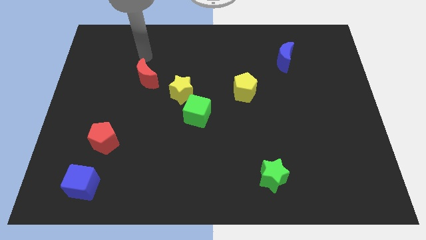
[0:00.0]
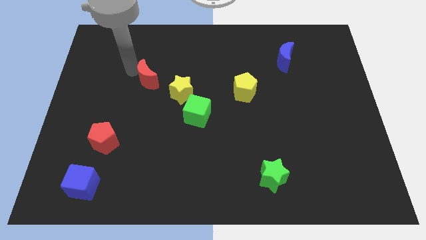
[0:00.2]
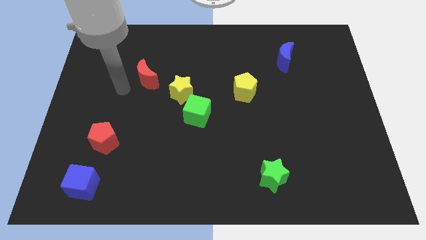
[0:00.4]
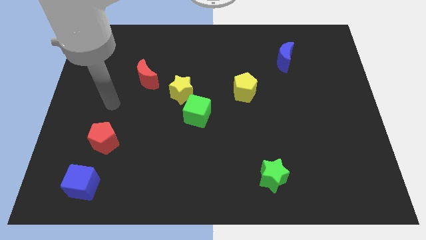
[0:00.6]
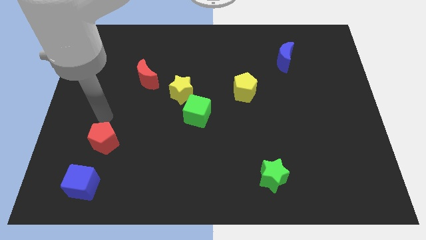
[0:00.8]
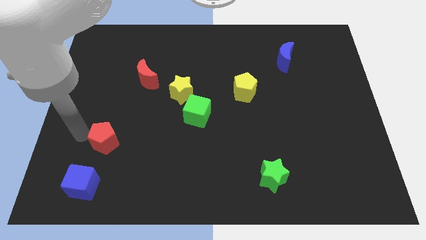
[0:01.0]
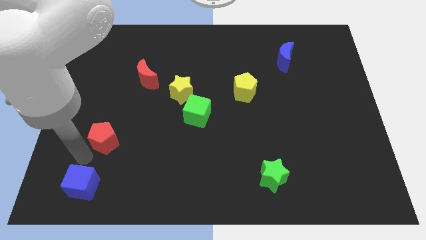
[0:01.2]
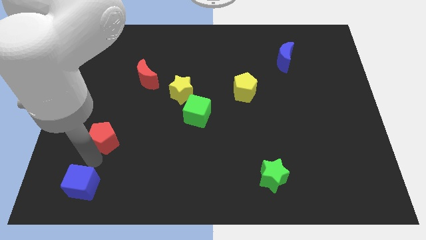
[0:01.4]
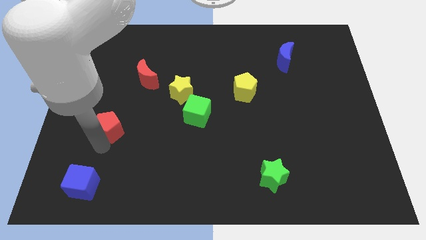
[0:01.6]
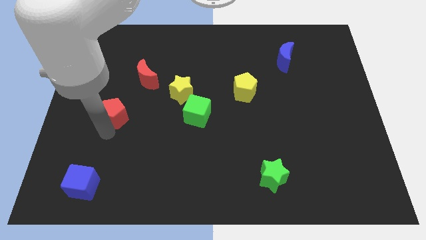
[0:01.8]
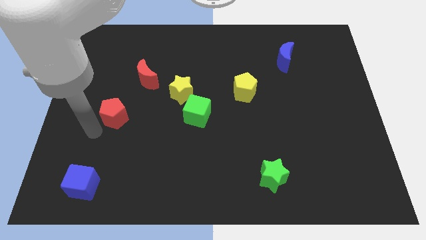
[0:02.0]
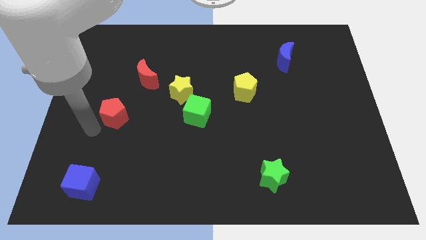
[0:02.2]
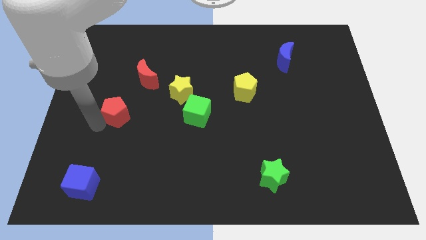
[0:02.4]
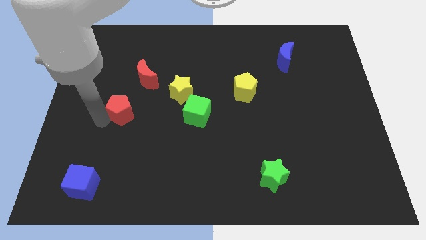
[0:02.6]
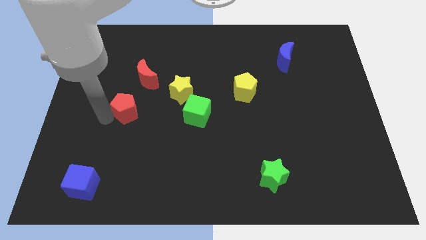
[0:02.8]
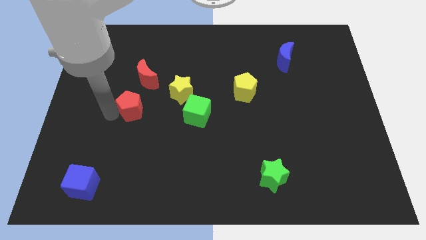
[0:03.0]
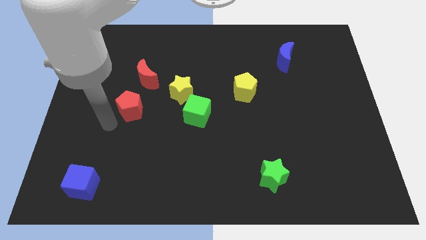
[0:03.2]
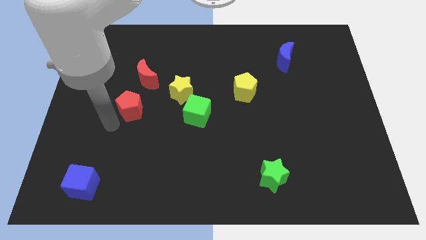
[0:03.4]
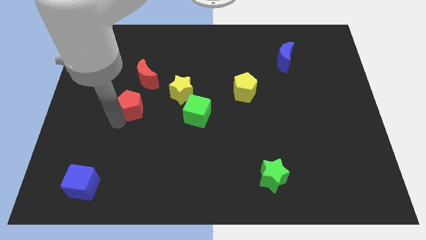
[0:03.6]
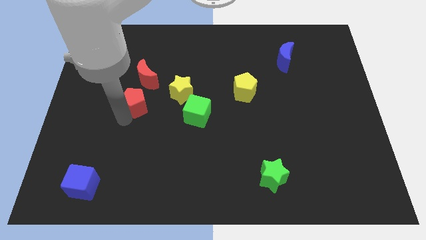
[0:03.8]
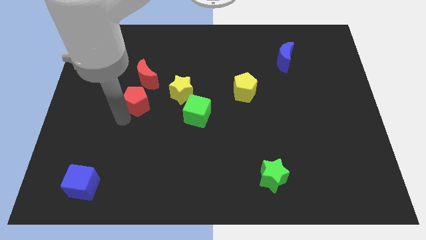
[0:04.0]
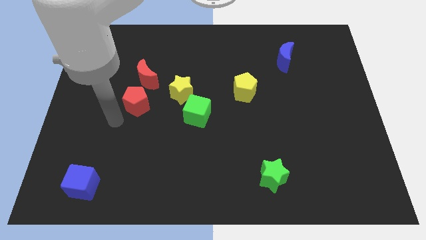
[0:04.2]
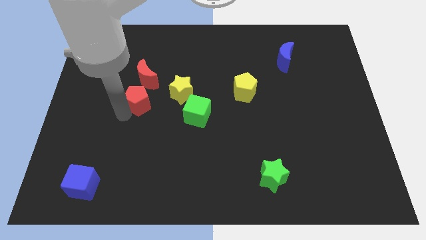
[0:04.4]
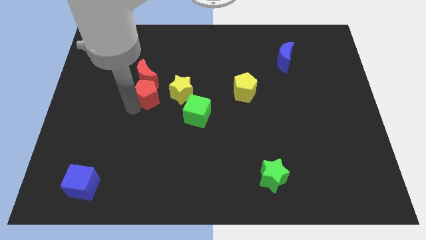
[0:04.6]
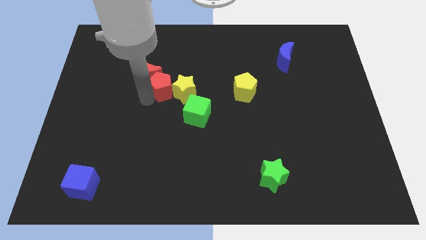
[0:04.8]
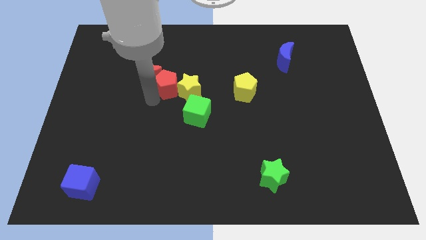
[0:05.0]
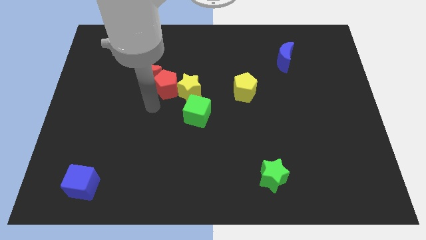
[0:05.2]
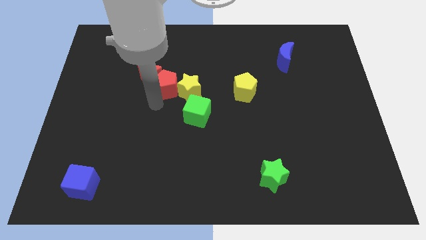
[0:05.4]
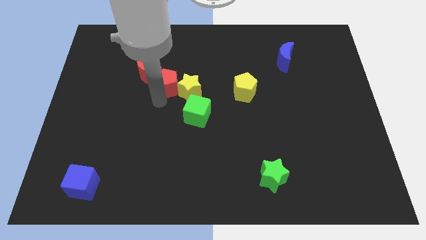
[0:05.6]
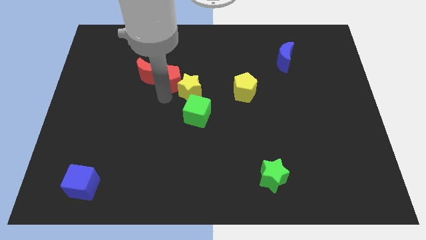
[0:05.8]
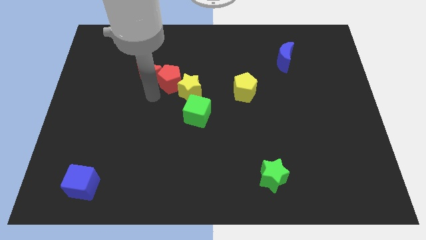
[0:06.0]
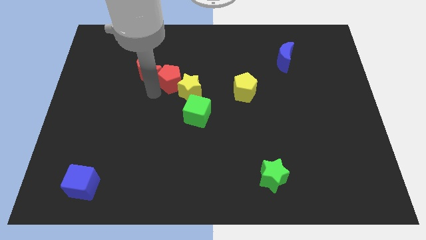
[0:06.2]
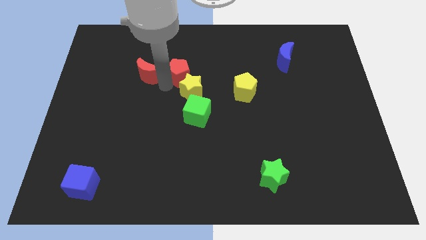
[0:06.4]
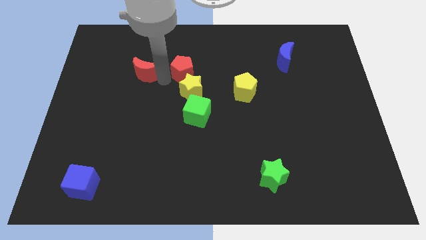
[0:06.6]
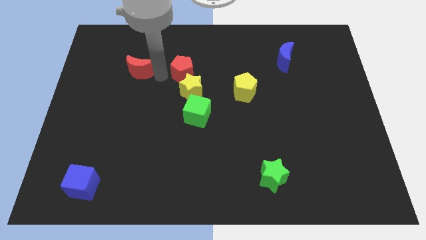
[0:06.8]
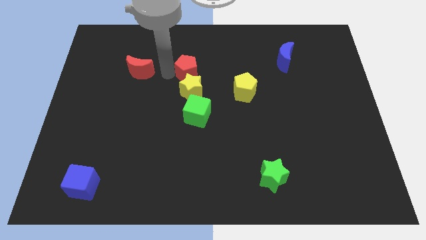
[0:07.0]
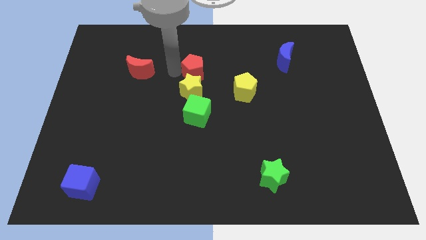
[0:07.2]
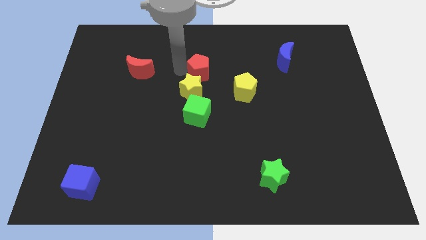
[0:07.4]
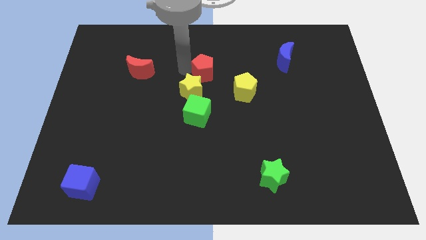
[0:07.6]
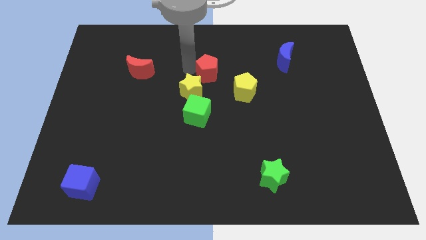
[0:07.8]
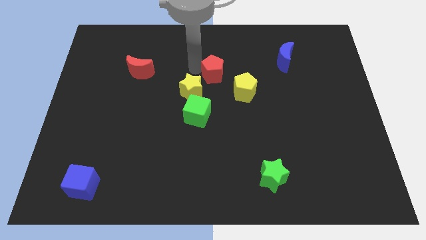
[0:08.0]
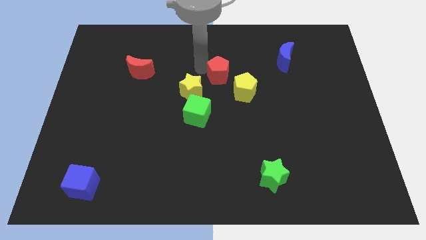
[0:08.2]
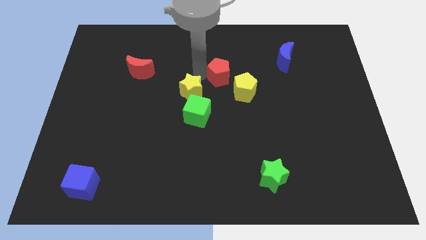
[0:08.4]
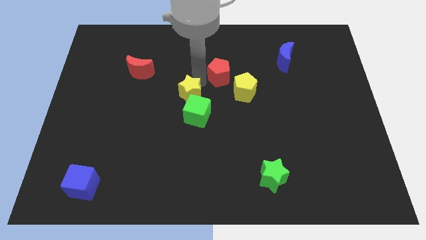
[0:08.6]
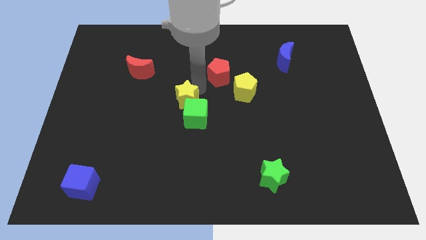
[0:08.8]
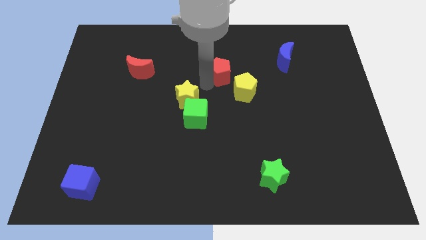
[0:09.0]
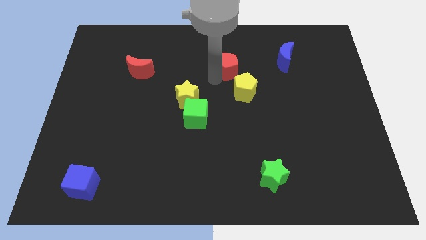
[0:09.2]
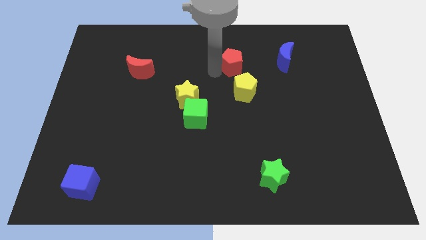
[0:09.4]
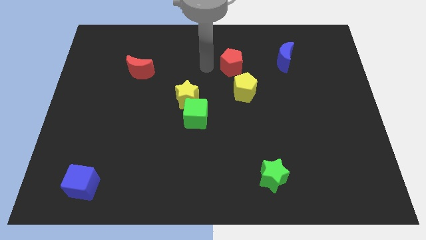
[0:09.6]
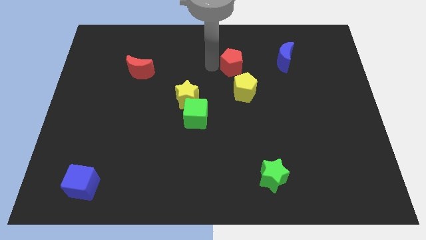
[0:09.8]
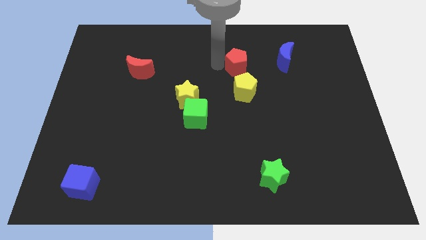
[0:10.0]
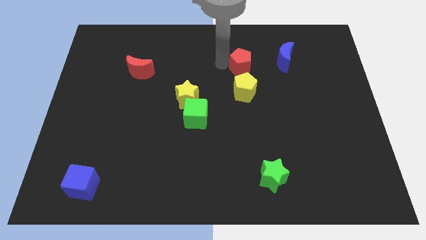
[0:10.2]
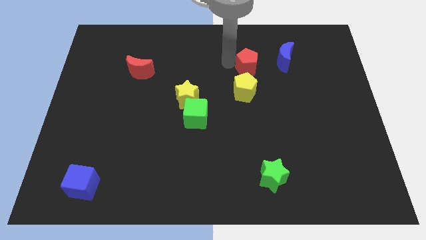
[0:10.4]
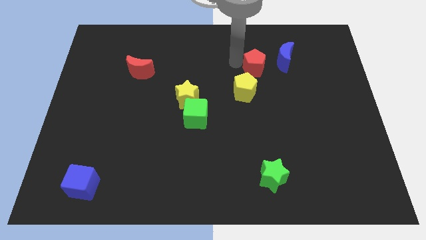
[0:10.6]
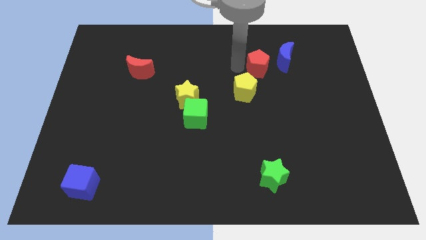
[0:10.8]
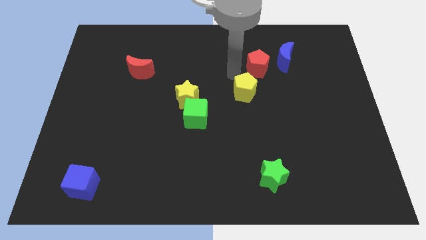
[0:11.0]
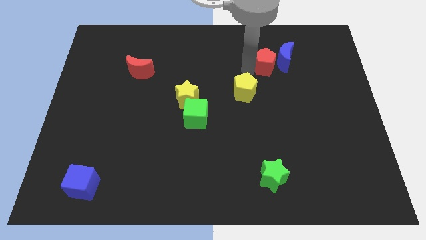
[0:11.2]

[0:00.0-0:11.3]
put the red pentagon towards the blue moon
